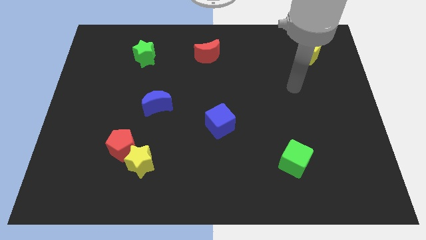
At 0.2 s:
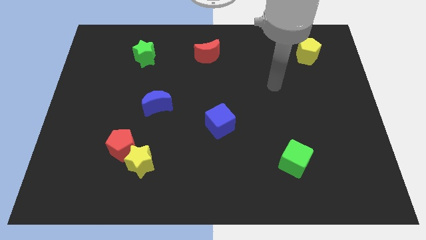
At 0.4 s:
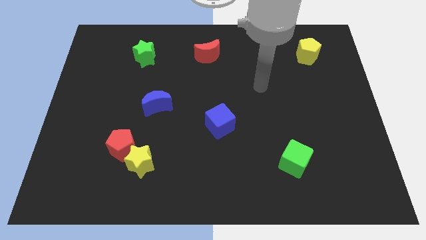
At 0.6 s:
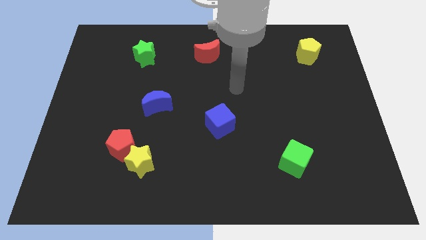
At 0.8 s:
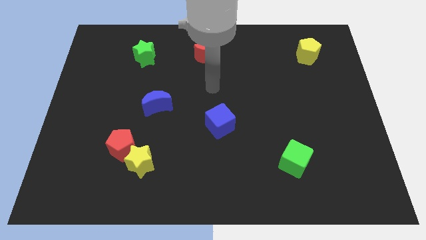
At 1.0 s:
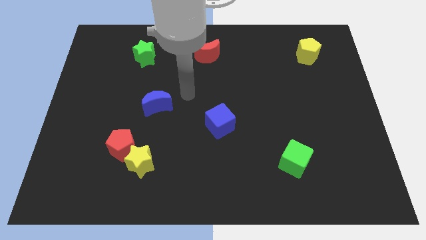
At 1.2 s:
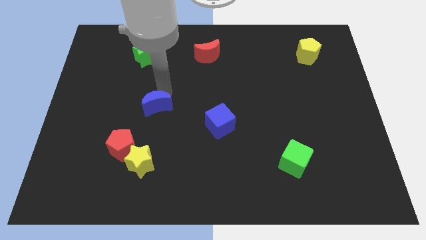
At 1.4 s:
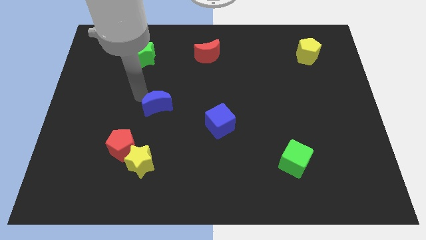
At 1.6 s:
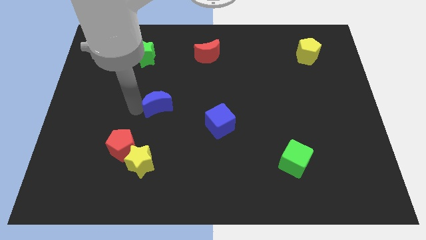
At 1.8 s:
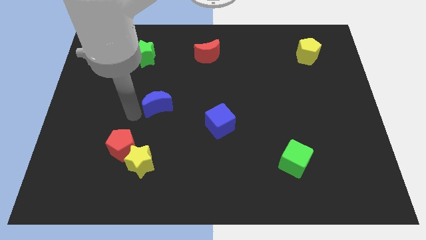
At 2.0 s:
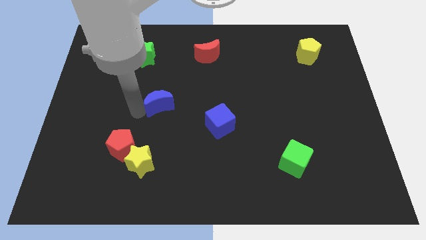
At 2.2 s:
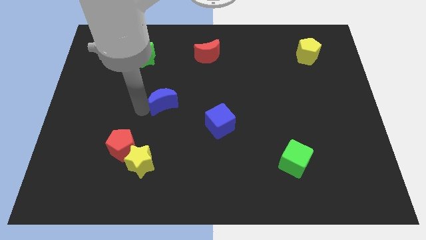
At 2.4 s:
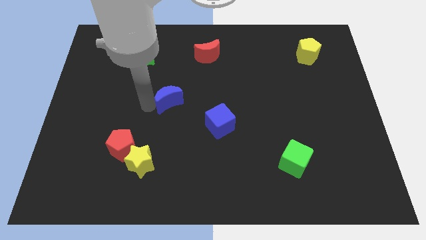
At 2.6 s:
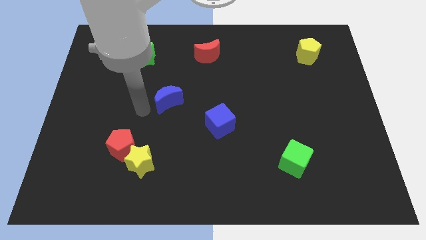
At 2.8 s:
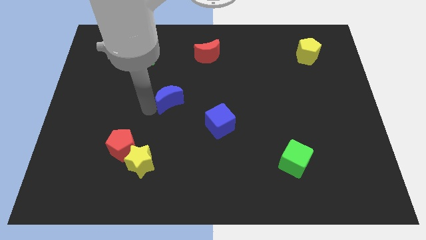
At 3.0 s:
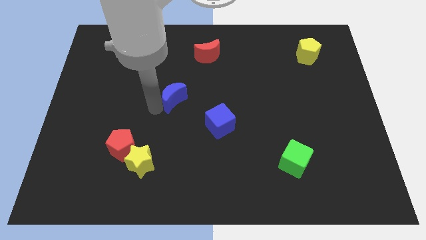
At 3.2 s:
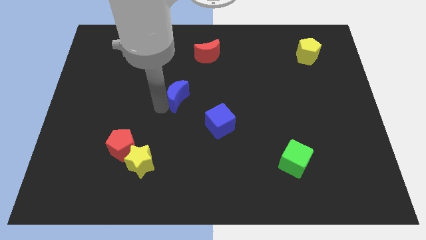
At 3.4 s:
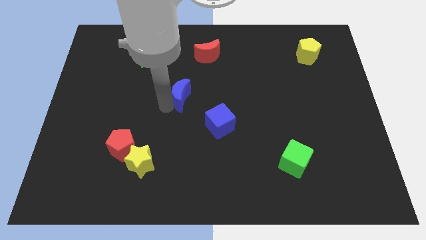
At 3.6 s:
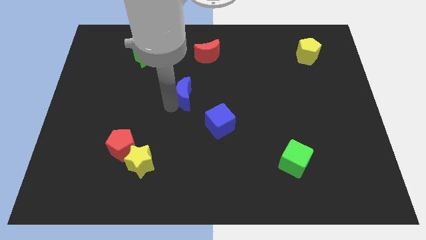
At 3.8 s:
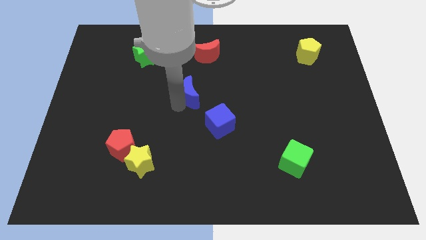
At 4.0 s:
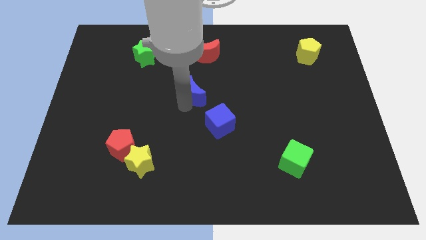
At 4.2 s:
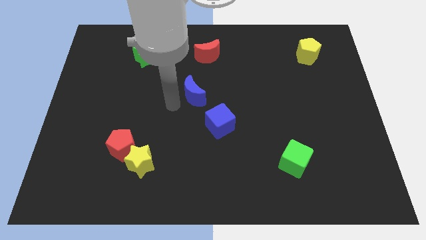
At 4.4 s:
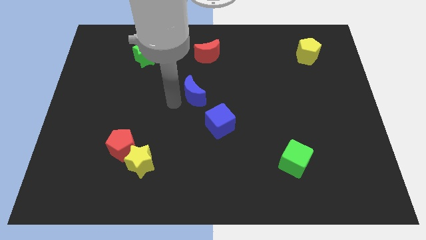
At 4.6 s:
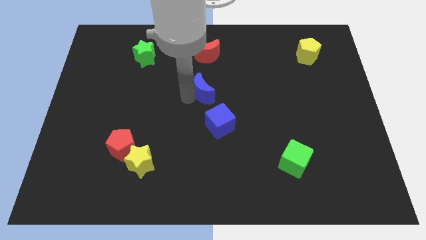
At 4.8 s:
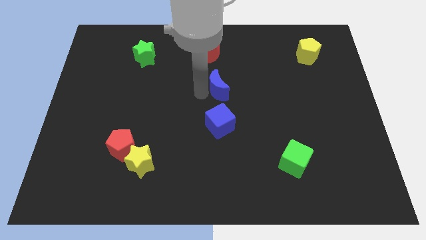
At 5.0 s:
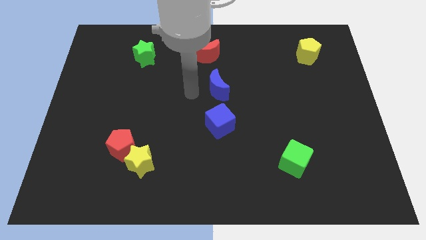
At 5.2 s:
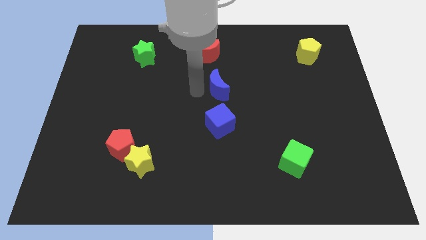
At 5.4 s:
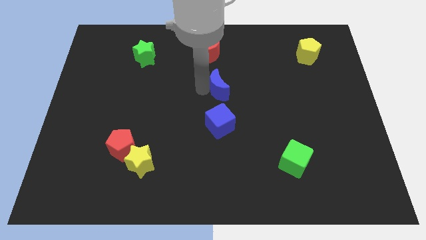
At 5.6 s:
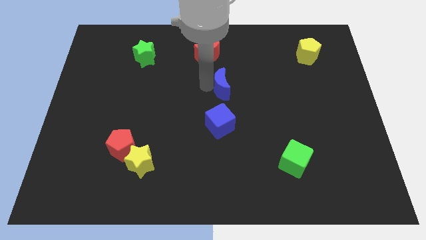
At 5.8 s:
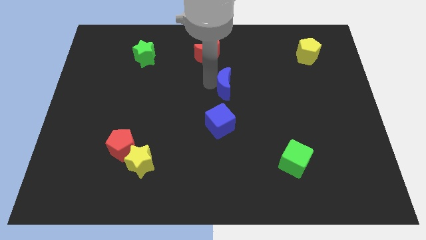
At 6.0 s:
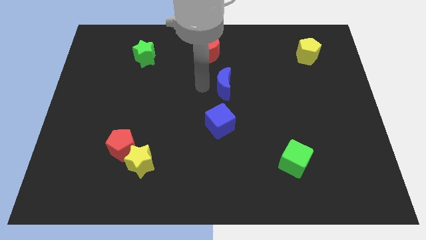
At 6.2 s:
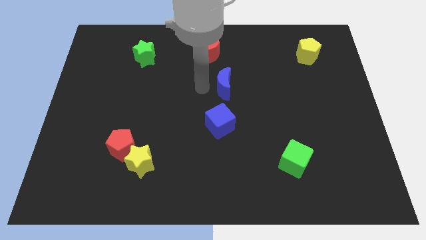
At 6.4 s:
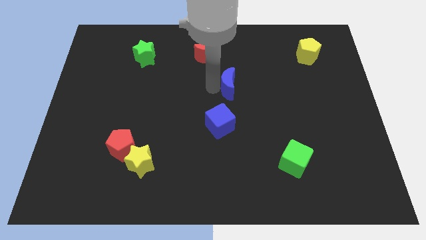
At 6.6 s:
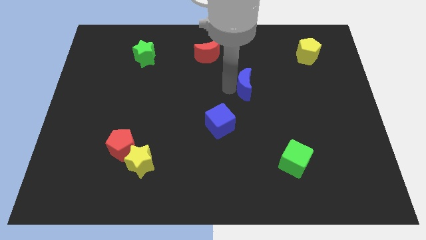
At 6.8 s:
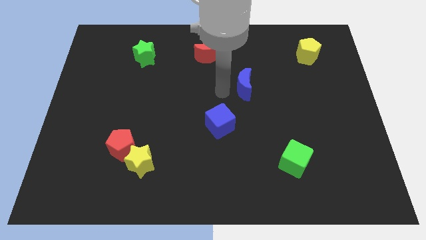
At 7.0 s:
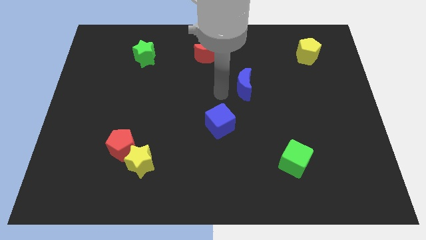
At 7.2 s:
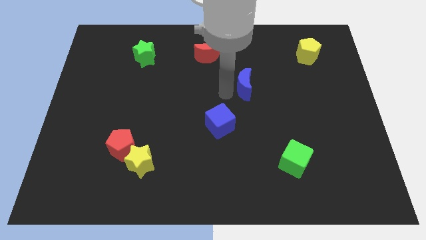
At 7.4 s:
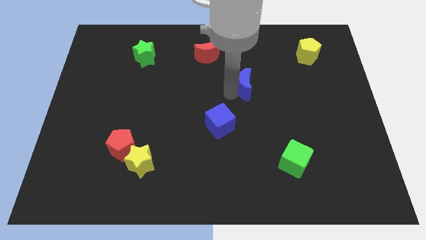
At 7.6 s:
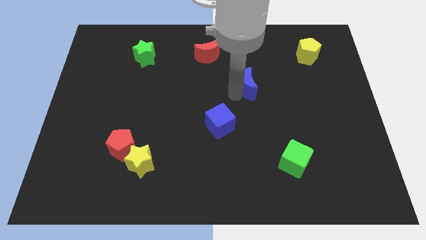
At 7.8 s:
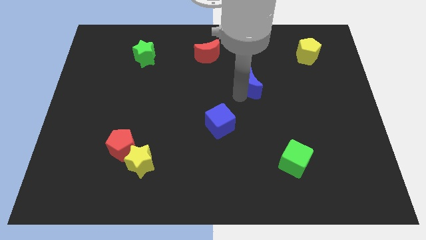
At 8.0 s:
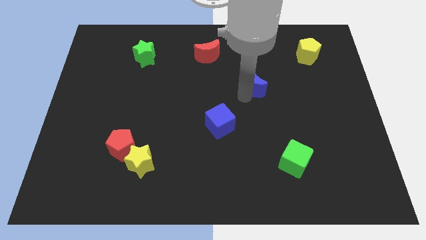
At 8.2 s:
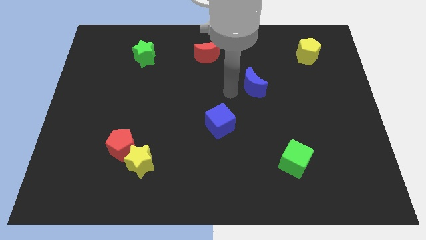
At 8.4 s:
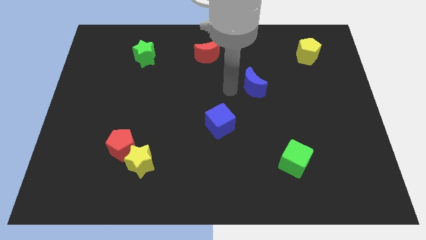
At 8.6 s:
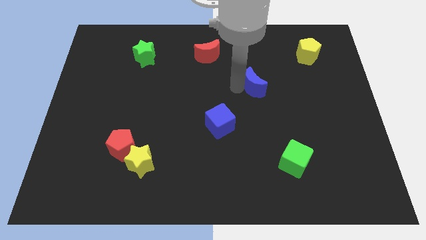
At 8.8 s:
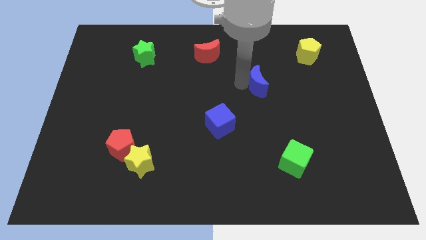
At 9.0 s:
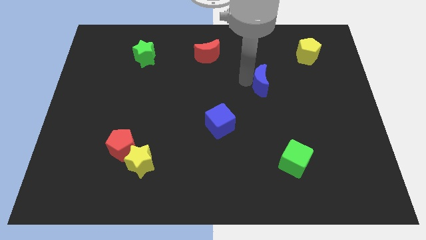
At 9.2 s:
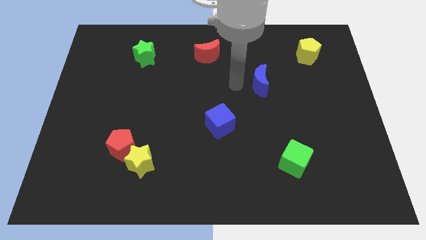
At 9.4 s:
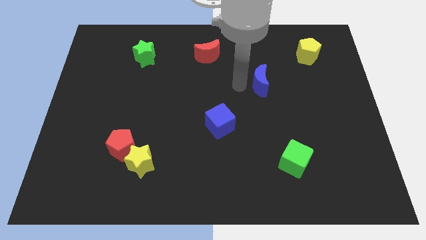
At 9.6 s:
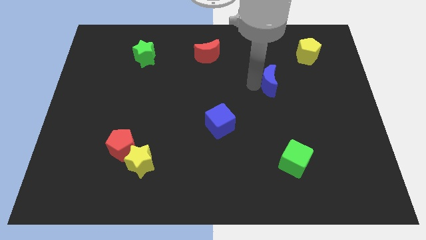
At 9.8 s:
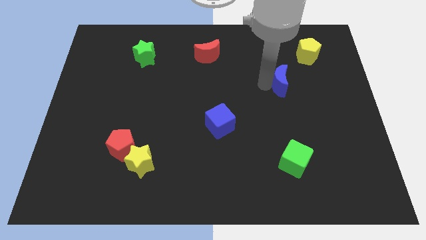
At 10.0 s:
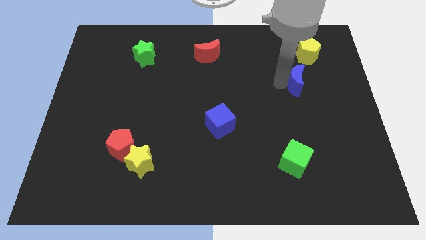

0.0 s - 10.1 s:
push the blue moon below the yellow pentagon

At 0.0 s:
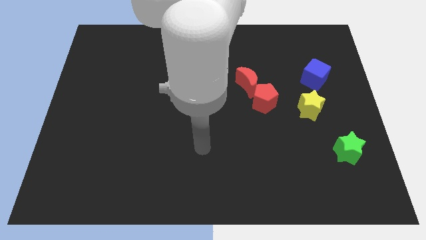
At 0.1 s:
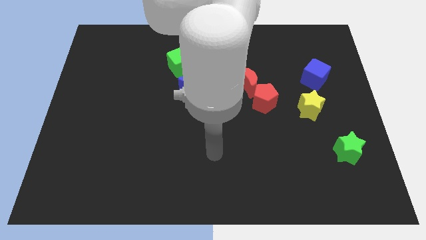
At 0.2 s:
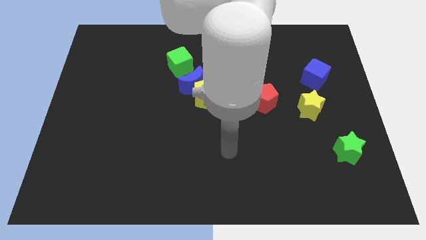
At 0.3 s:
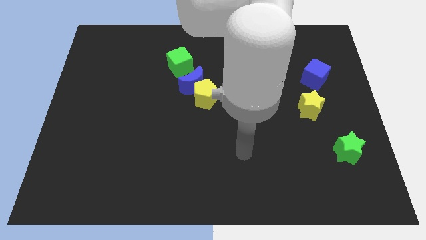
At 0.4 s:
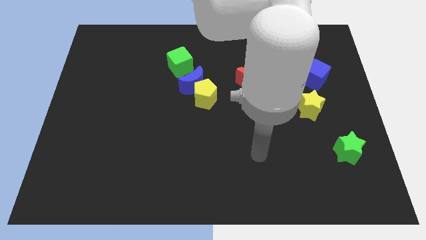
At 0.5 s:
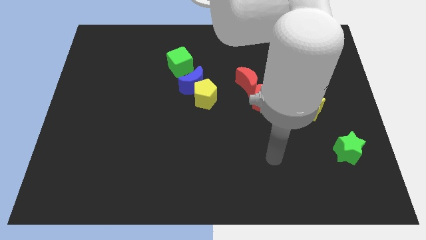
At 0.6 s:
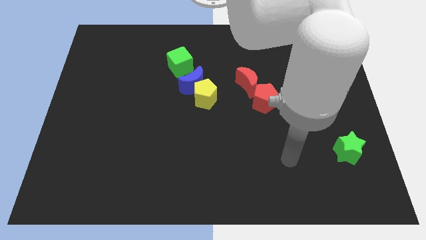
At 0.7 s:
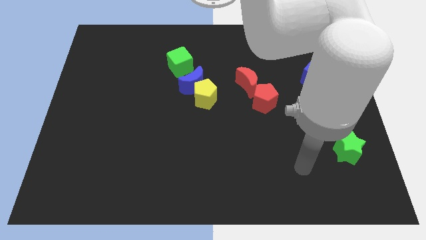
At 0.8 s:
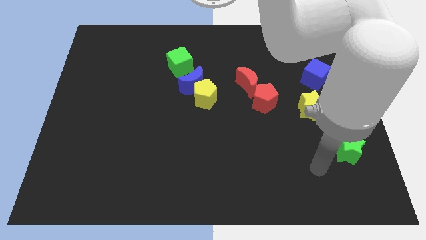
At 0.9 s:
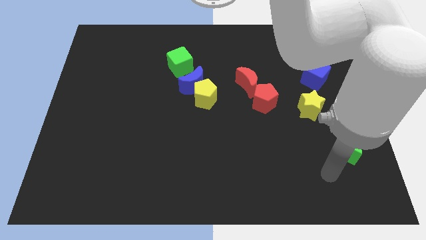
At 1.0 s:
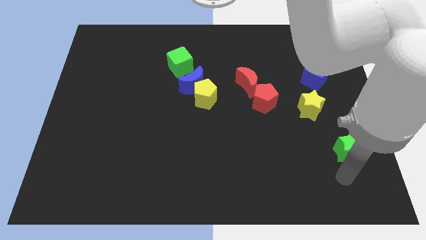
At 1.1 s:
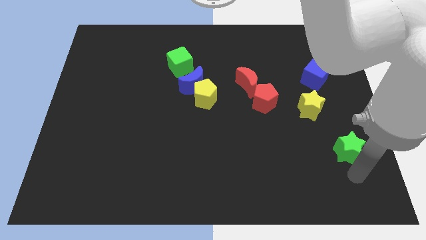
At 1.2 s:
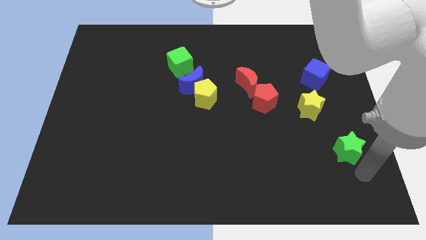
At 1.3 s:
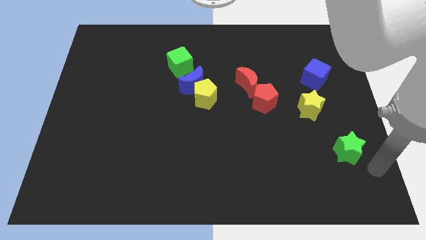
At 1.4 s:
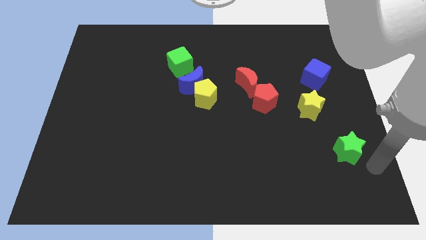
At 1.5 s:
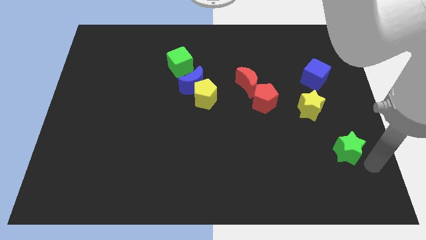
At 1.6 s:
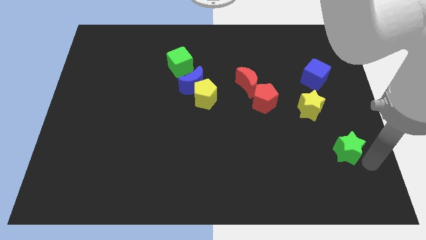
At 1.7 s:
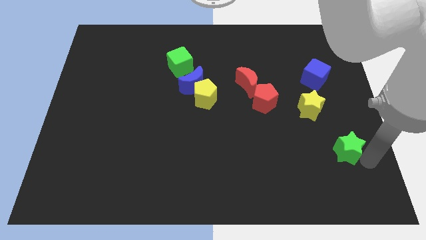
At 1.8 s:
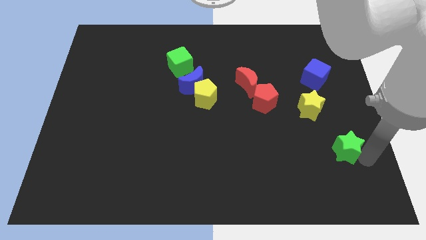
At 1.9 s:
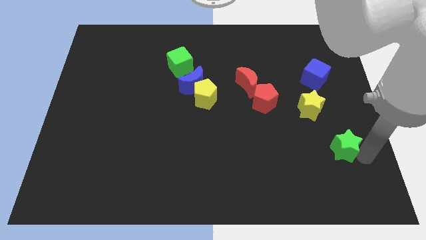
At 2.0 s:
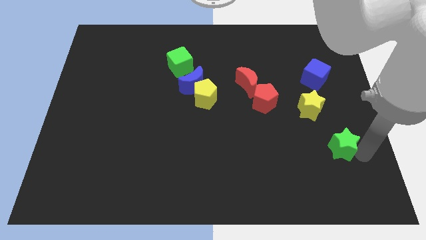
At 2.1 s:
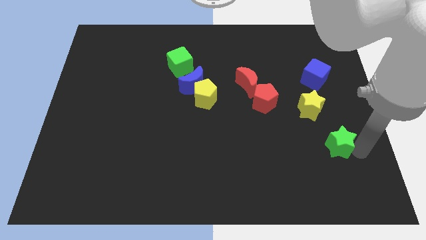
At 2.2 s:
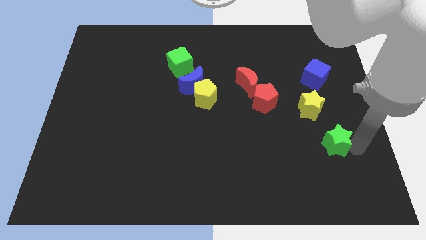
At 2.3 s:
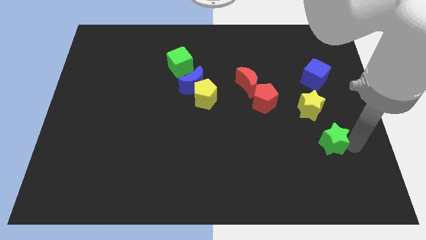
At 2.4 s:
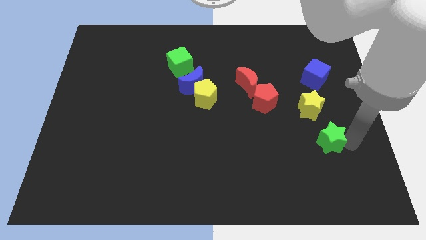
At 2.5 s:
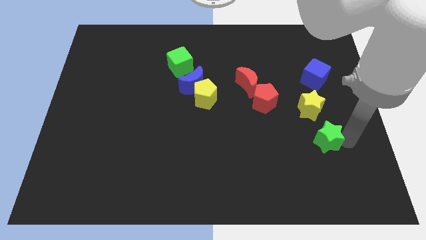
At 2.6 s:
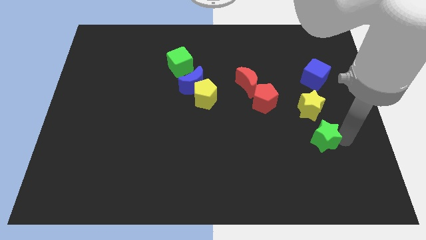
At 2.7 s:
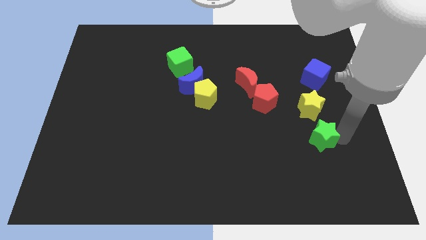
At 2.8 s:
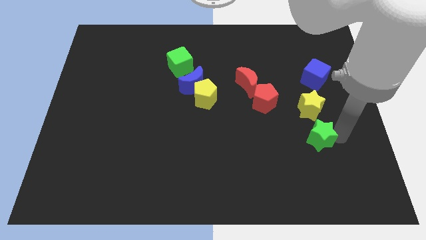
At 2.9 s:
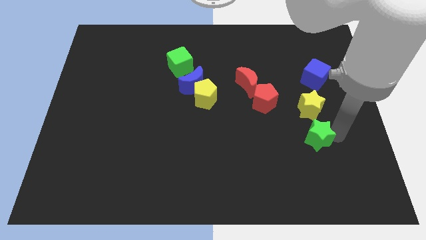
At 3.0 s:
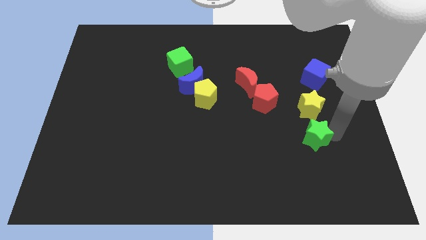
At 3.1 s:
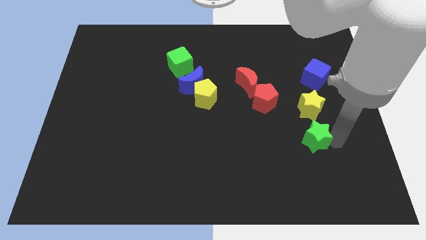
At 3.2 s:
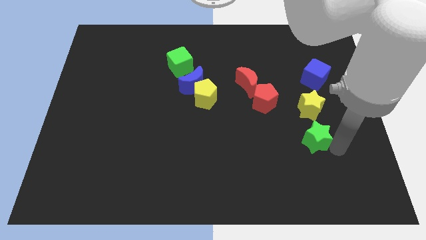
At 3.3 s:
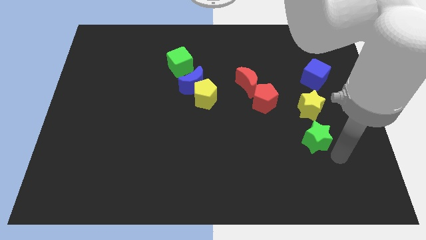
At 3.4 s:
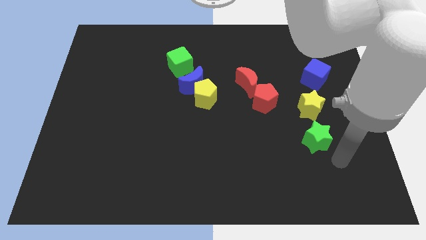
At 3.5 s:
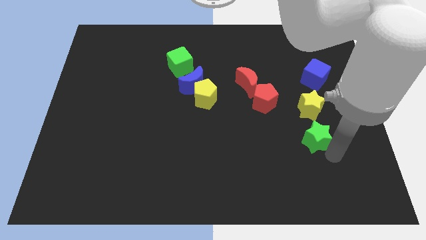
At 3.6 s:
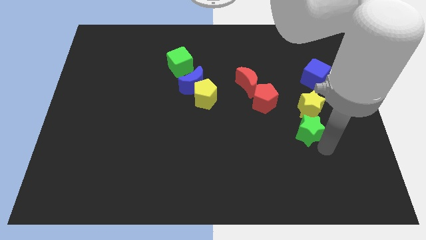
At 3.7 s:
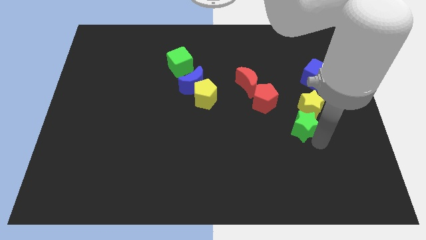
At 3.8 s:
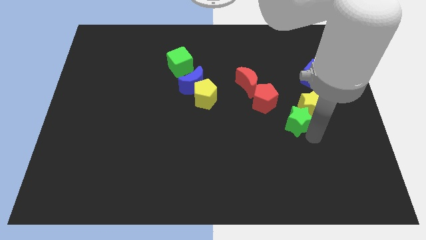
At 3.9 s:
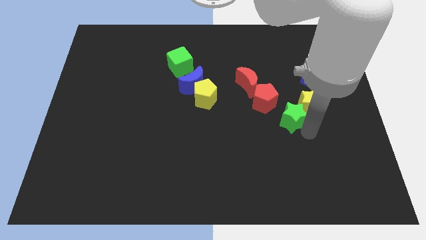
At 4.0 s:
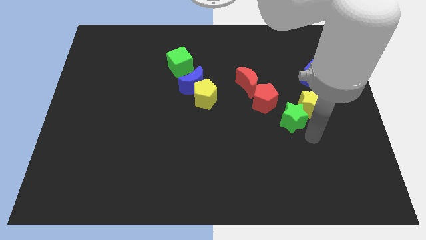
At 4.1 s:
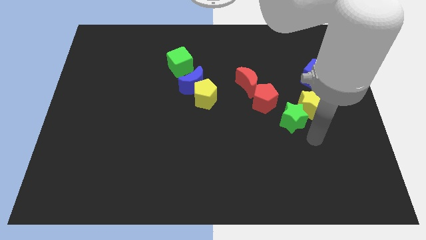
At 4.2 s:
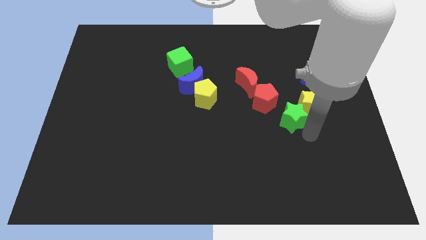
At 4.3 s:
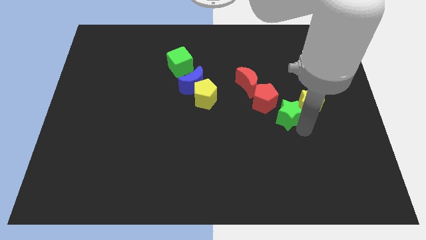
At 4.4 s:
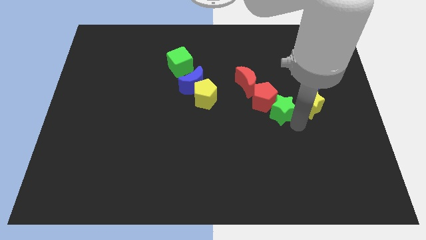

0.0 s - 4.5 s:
slide the green star diagonally down and to the right of the red moon
